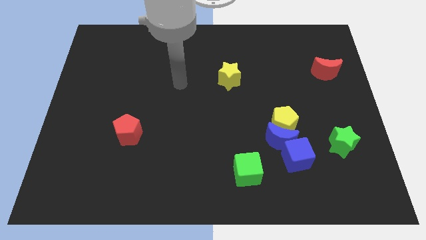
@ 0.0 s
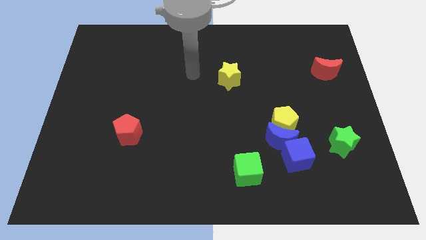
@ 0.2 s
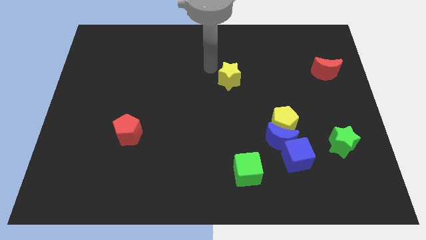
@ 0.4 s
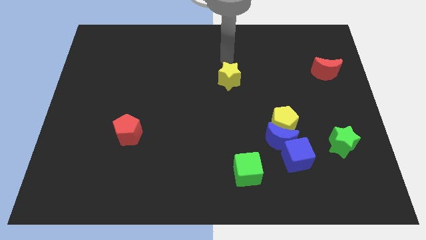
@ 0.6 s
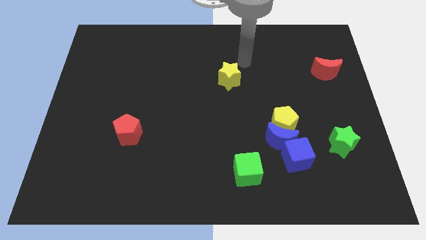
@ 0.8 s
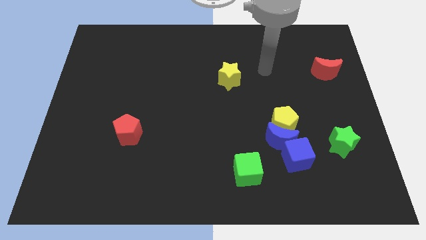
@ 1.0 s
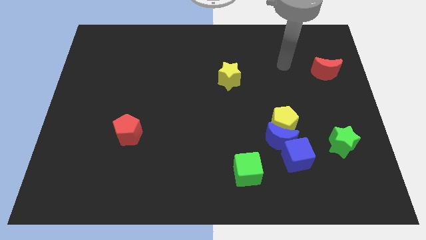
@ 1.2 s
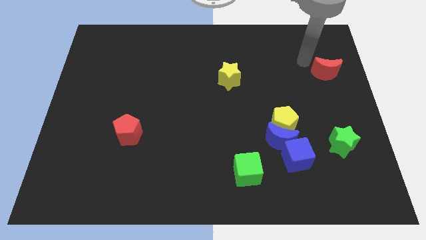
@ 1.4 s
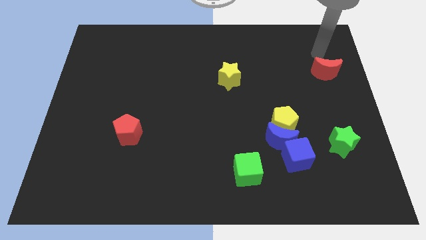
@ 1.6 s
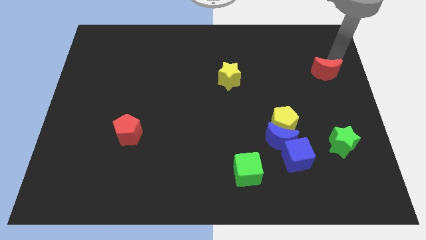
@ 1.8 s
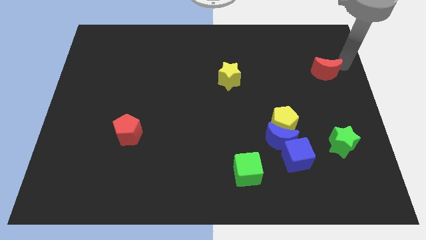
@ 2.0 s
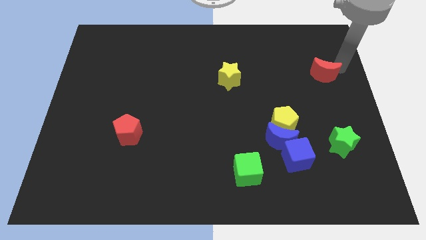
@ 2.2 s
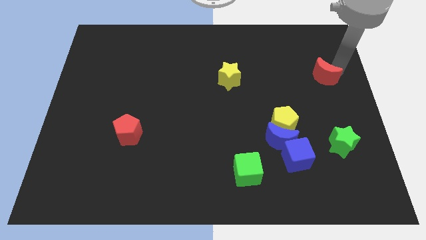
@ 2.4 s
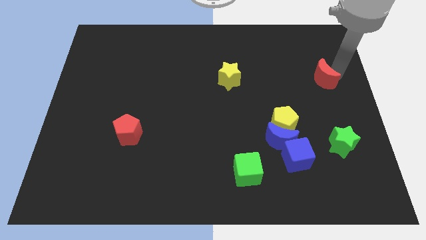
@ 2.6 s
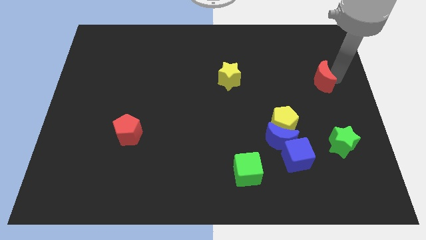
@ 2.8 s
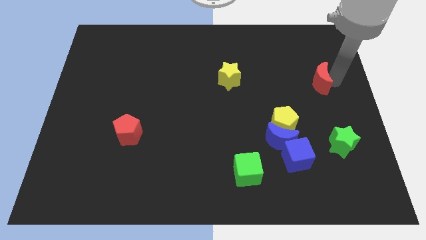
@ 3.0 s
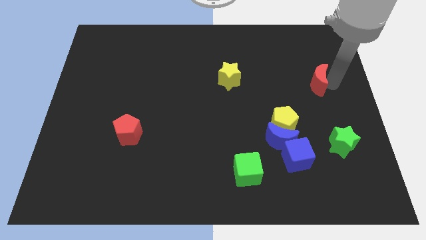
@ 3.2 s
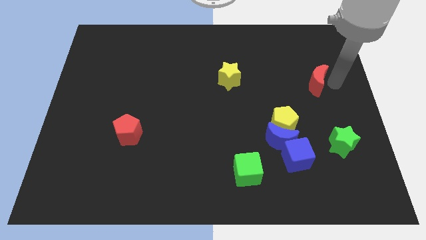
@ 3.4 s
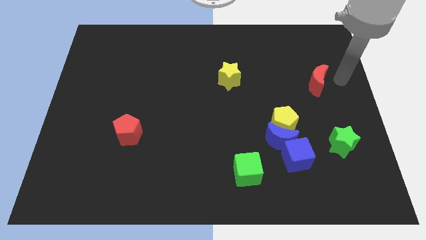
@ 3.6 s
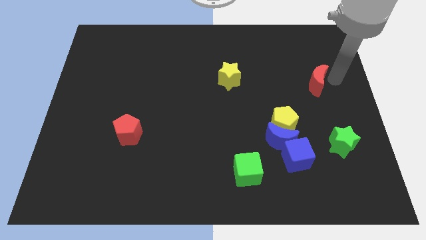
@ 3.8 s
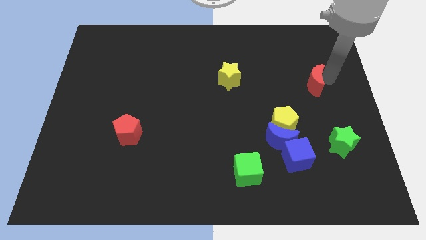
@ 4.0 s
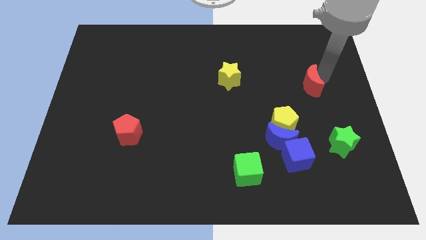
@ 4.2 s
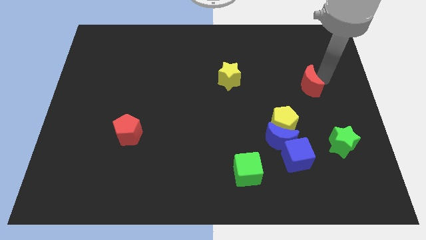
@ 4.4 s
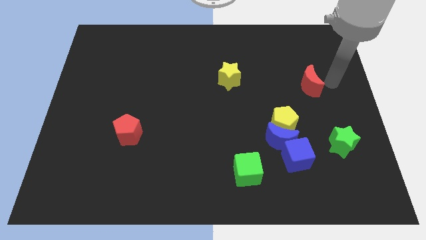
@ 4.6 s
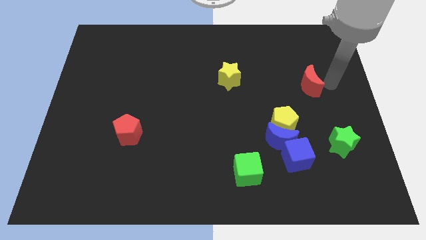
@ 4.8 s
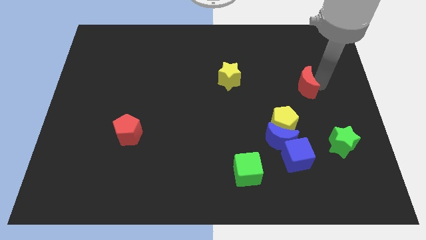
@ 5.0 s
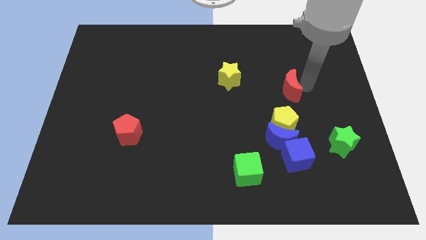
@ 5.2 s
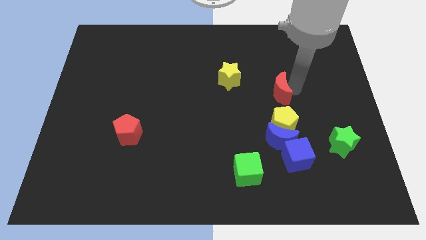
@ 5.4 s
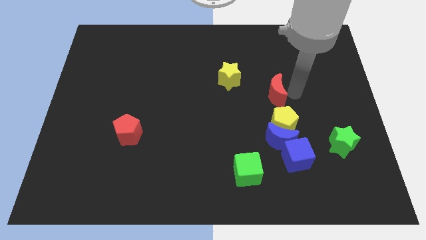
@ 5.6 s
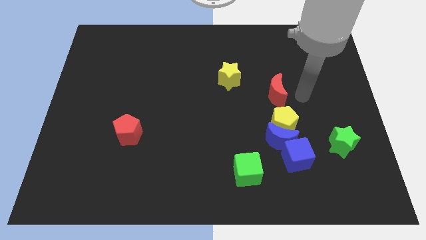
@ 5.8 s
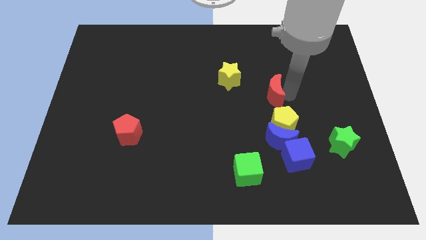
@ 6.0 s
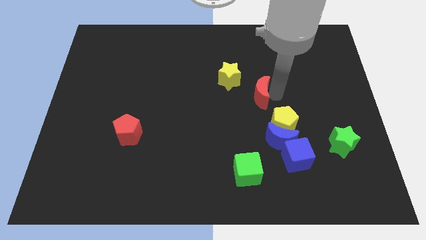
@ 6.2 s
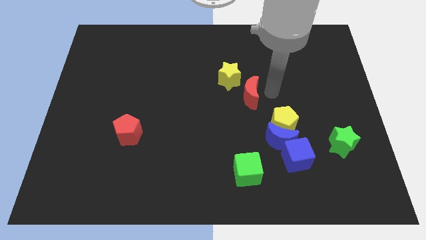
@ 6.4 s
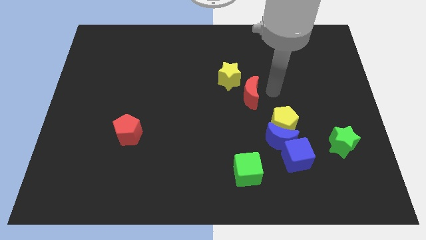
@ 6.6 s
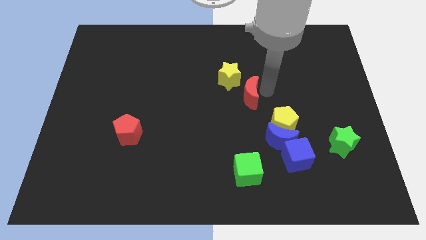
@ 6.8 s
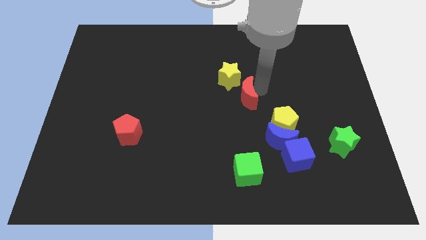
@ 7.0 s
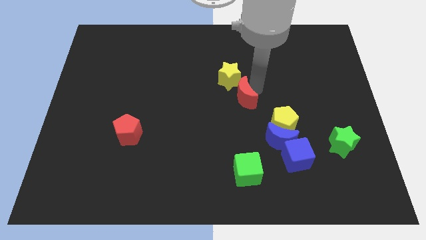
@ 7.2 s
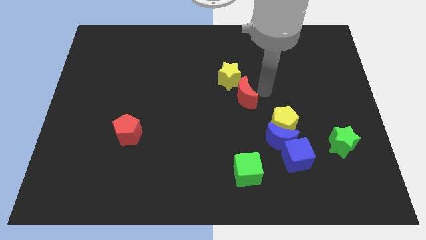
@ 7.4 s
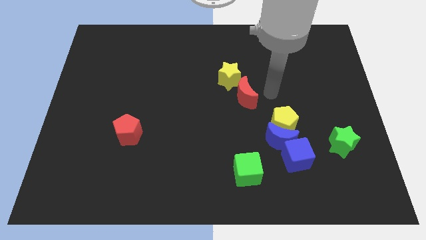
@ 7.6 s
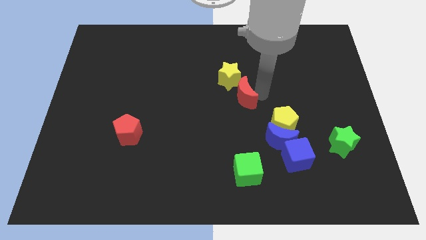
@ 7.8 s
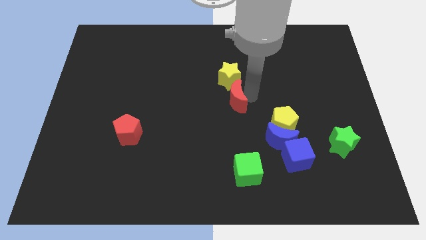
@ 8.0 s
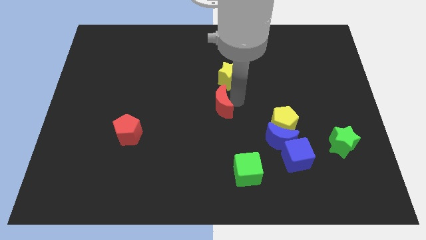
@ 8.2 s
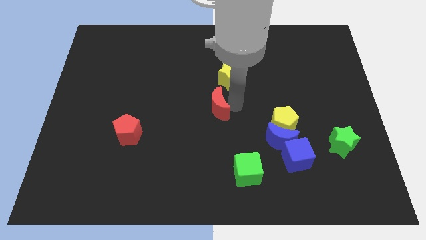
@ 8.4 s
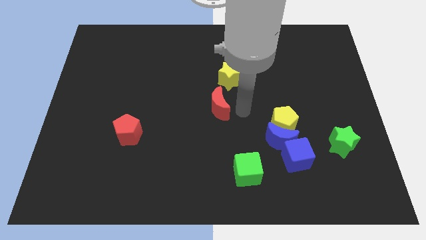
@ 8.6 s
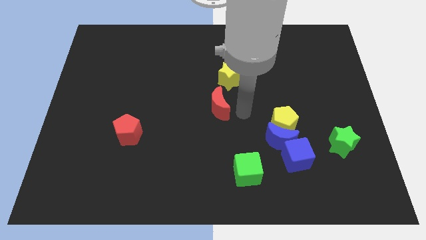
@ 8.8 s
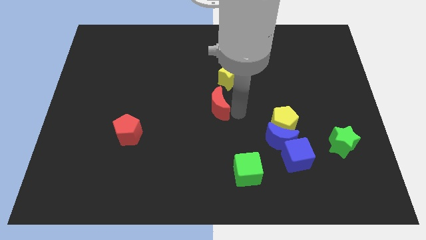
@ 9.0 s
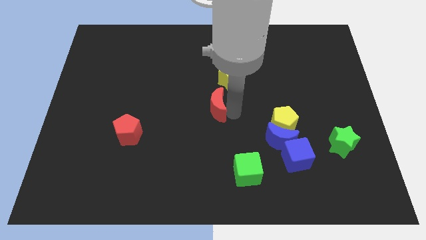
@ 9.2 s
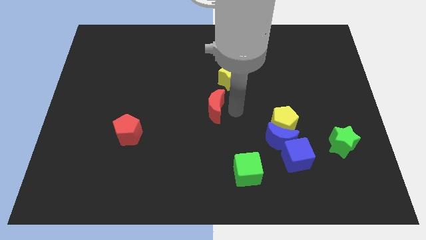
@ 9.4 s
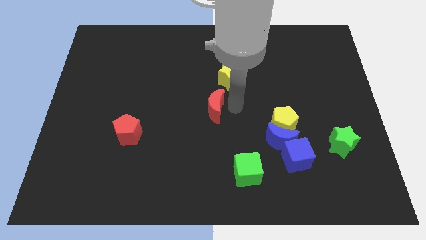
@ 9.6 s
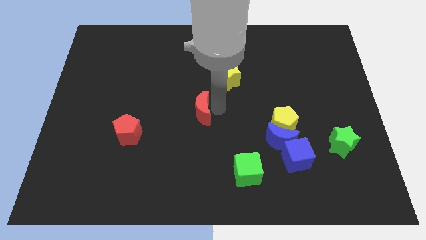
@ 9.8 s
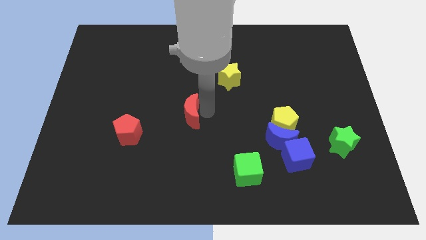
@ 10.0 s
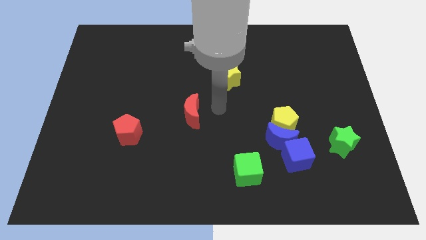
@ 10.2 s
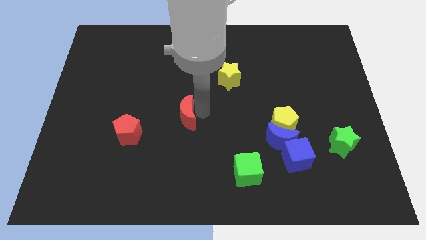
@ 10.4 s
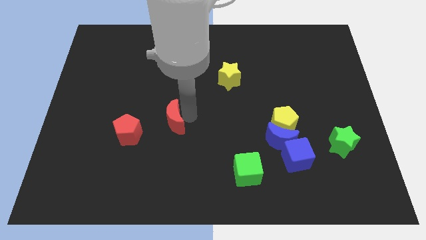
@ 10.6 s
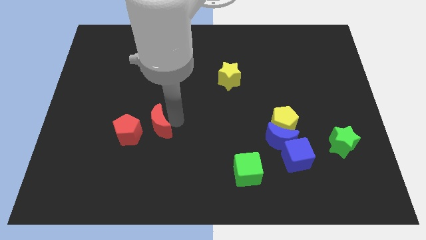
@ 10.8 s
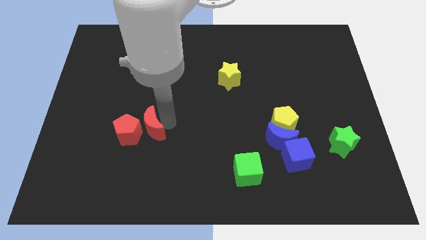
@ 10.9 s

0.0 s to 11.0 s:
push the red moon close to the red pentagon

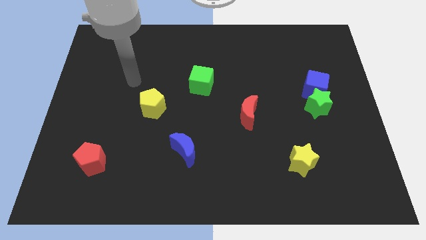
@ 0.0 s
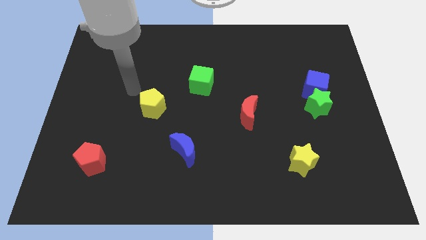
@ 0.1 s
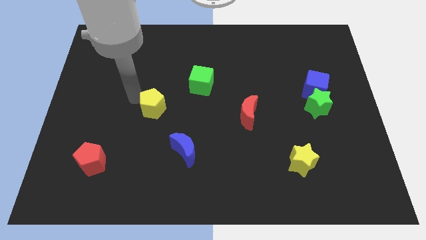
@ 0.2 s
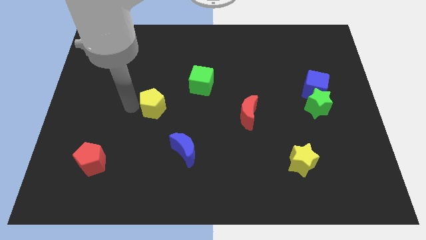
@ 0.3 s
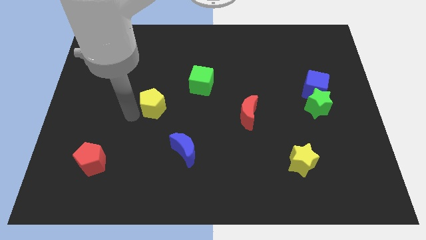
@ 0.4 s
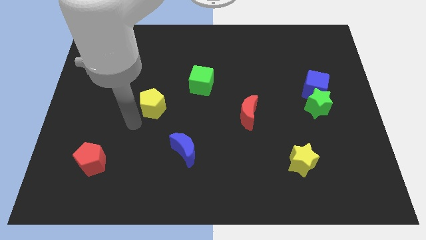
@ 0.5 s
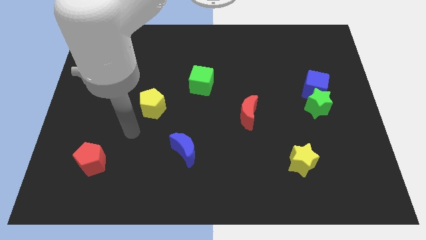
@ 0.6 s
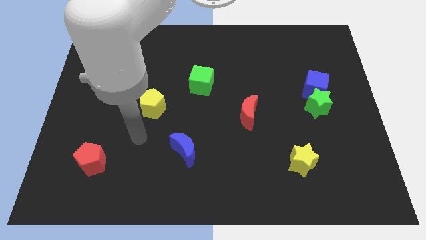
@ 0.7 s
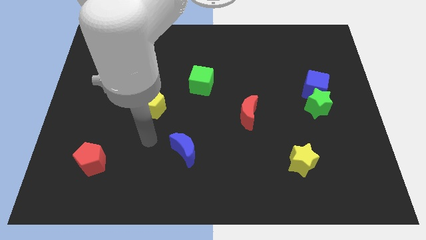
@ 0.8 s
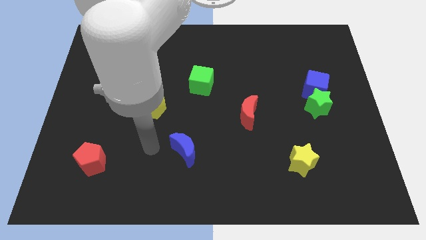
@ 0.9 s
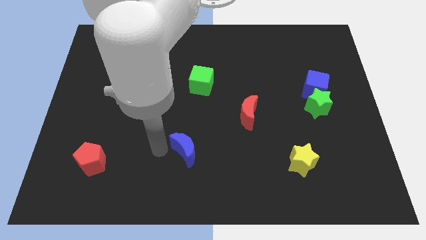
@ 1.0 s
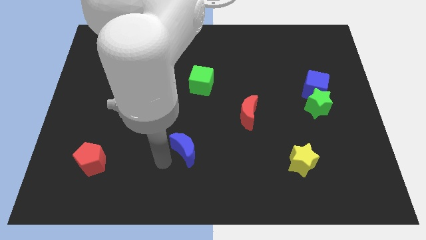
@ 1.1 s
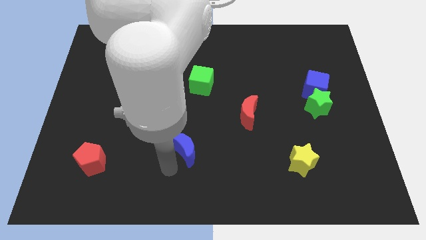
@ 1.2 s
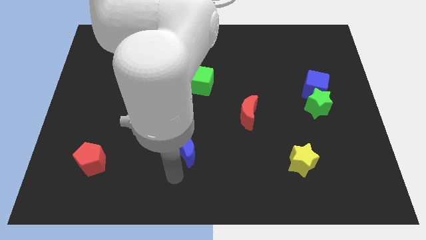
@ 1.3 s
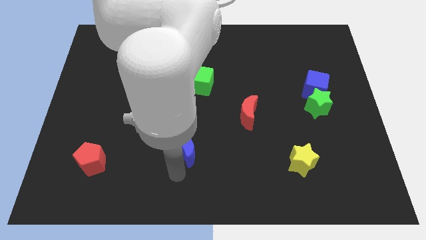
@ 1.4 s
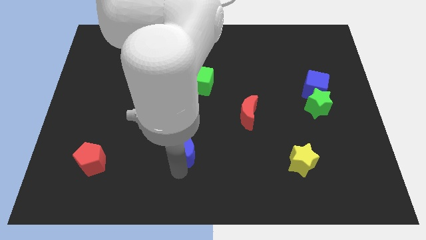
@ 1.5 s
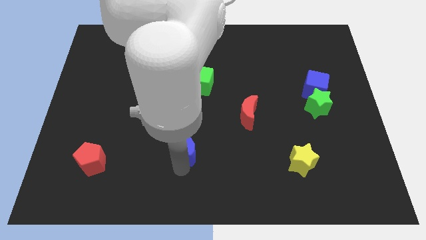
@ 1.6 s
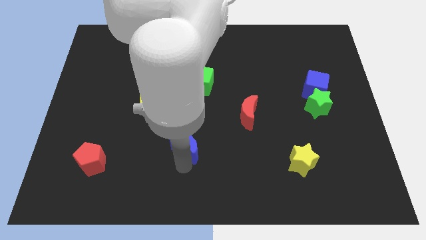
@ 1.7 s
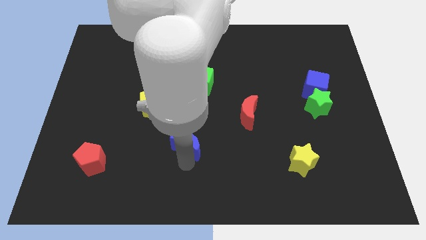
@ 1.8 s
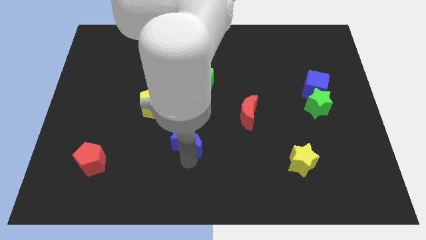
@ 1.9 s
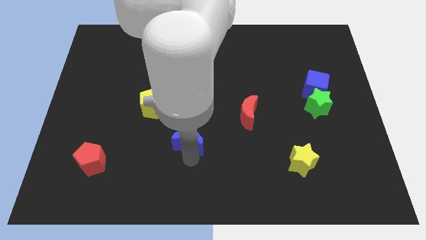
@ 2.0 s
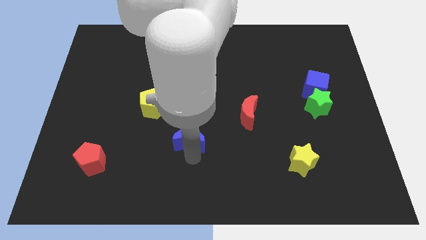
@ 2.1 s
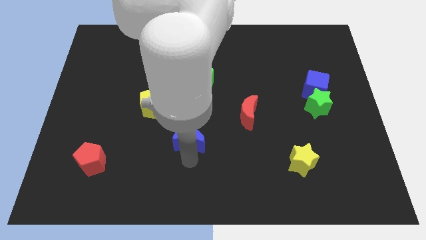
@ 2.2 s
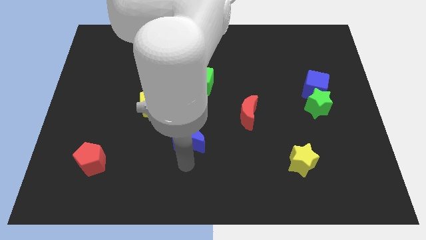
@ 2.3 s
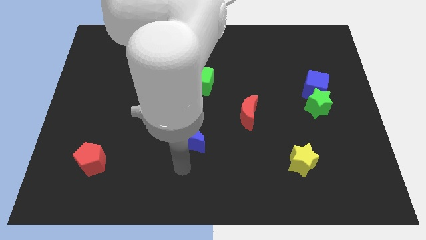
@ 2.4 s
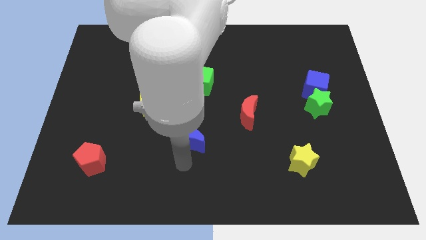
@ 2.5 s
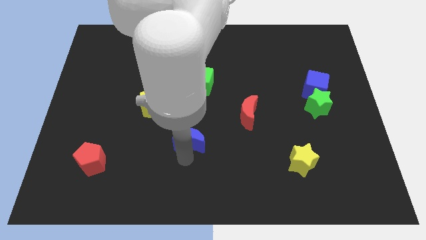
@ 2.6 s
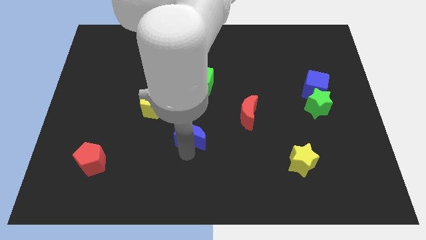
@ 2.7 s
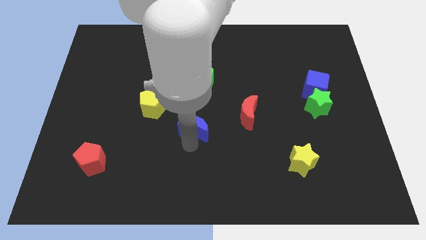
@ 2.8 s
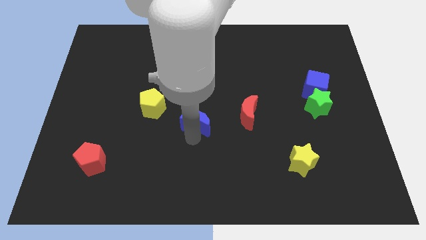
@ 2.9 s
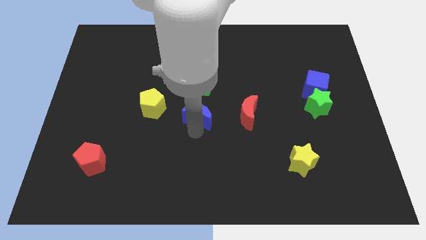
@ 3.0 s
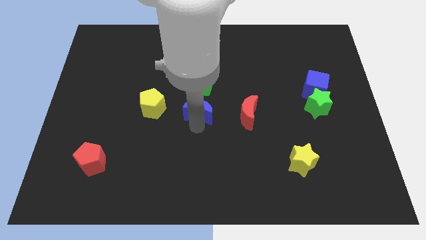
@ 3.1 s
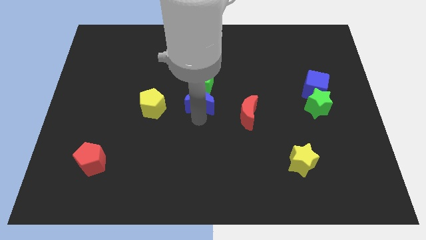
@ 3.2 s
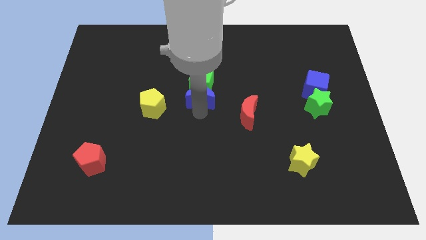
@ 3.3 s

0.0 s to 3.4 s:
move the blue moon close to the green cube
